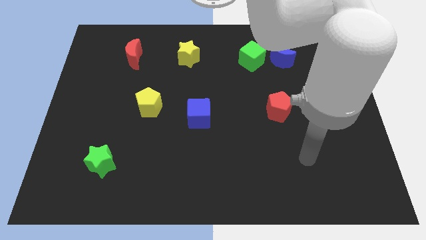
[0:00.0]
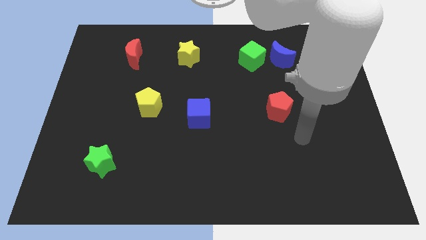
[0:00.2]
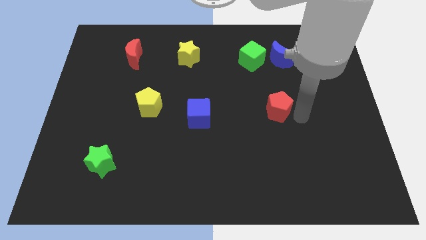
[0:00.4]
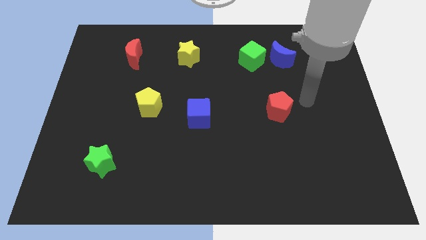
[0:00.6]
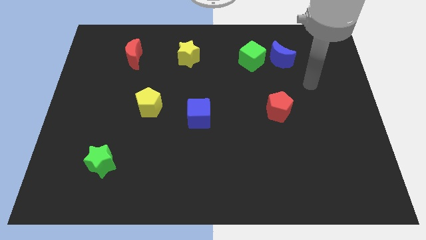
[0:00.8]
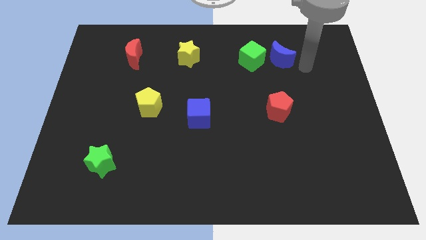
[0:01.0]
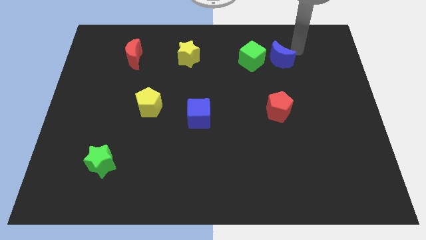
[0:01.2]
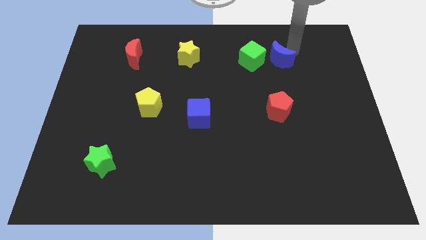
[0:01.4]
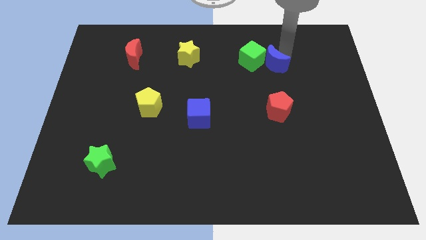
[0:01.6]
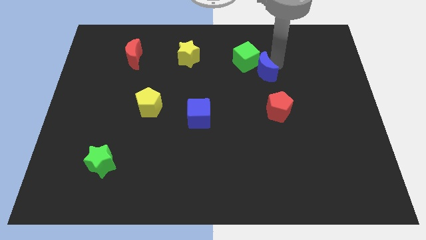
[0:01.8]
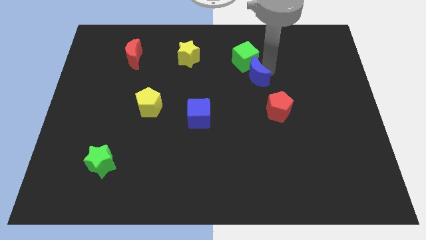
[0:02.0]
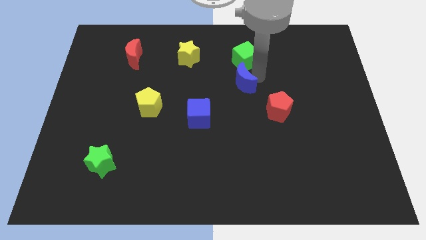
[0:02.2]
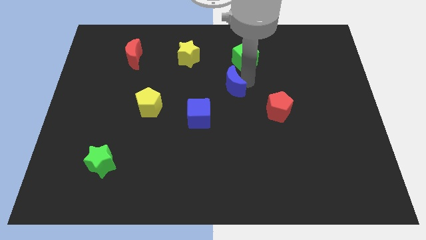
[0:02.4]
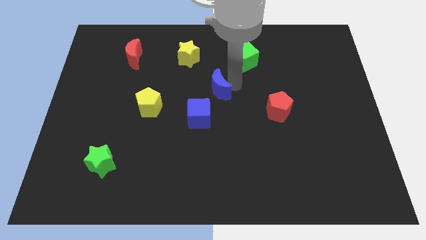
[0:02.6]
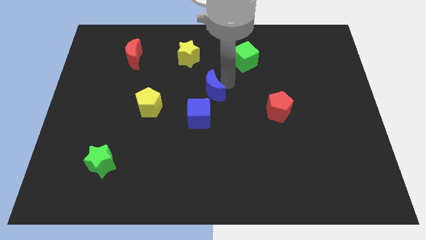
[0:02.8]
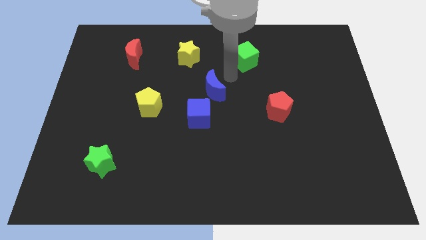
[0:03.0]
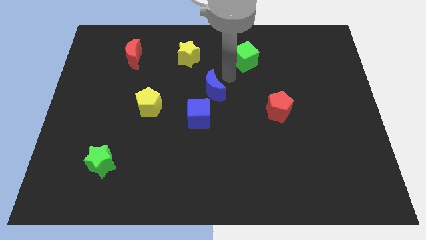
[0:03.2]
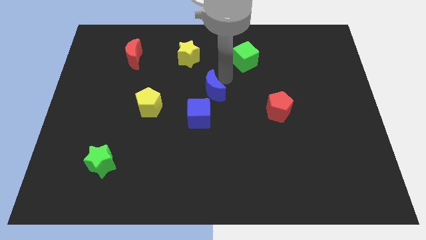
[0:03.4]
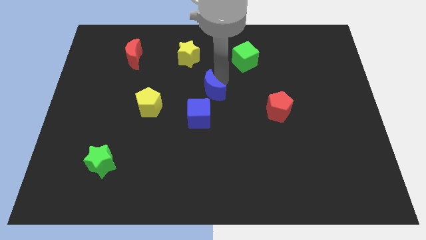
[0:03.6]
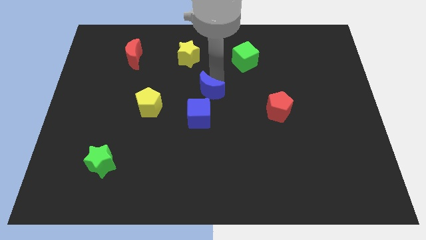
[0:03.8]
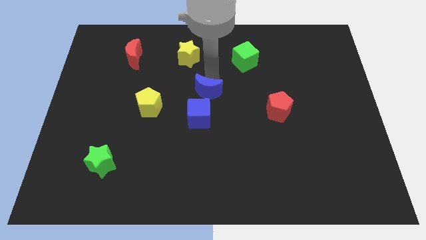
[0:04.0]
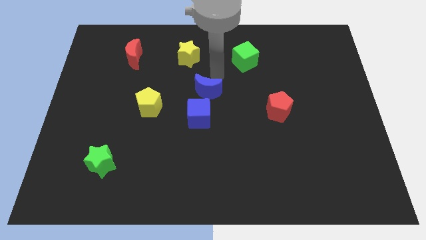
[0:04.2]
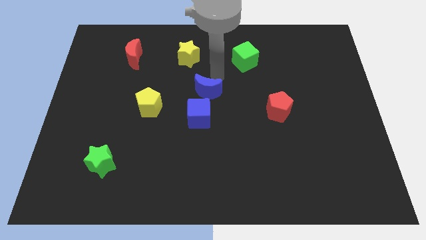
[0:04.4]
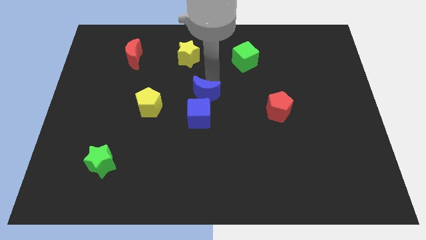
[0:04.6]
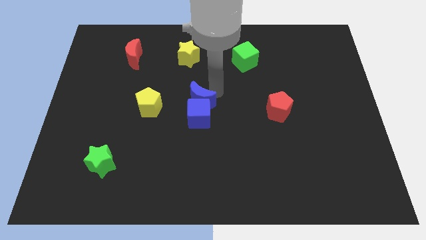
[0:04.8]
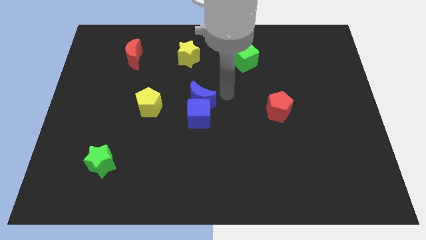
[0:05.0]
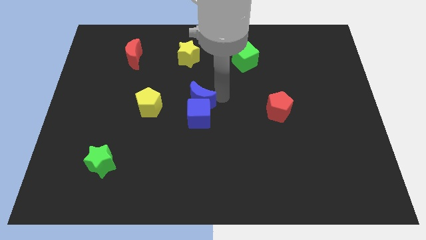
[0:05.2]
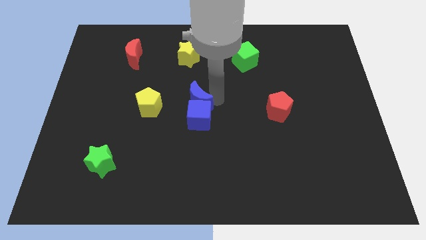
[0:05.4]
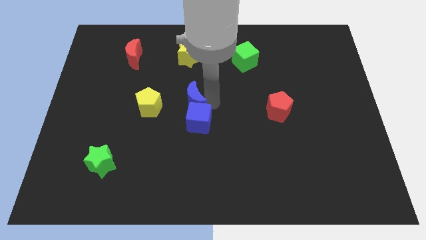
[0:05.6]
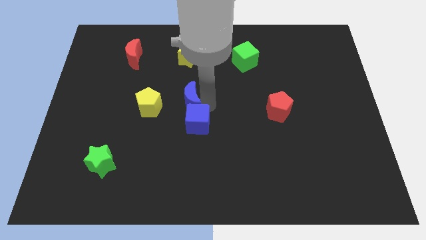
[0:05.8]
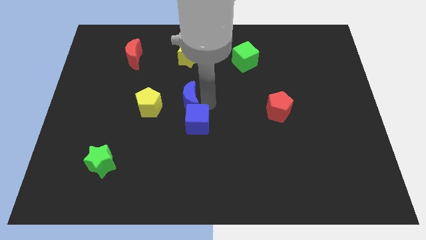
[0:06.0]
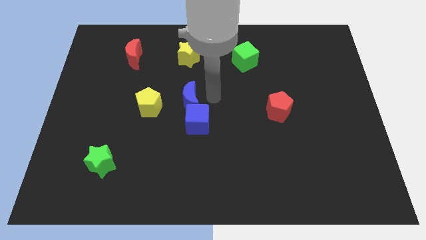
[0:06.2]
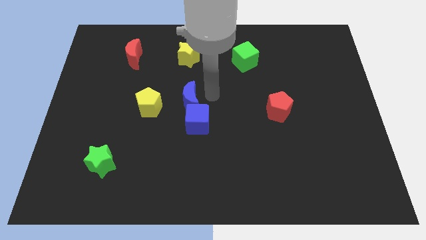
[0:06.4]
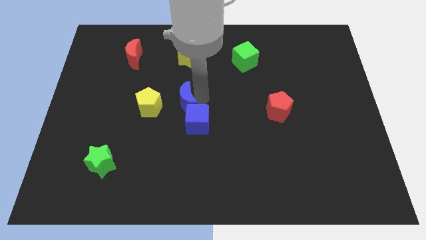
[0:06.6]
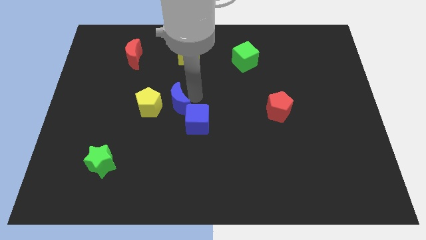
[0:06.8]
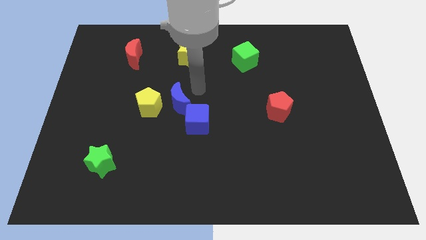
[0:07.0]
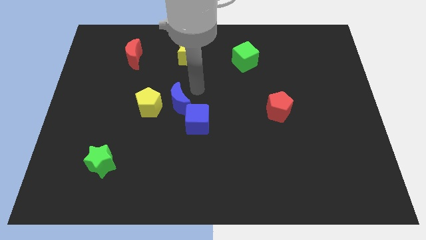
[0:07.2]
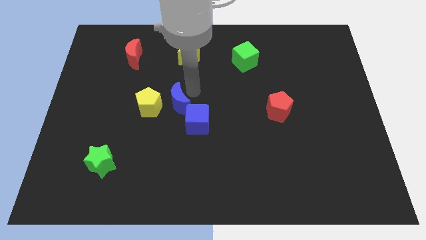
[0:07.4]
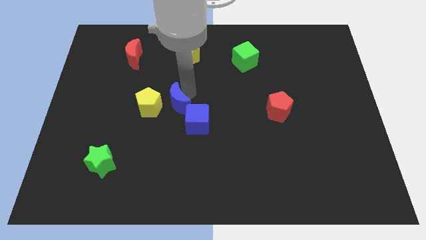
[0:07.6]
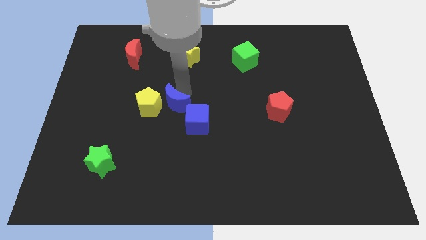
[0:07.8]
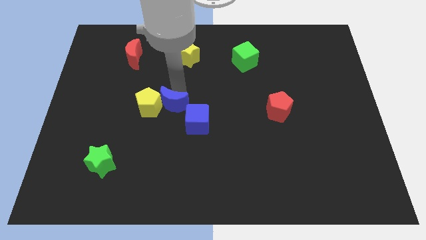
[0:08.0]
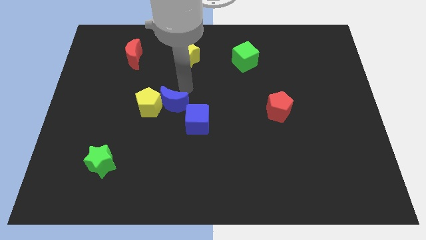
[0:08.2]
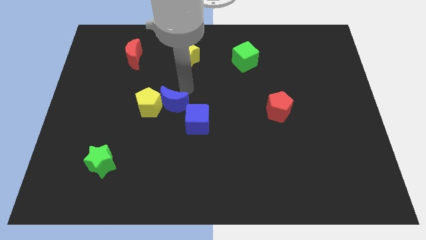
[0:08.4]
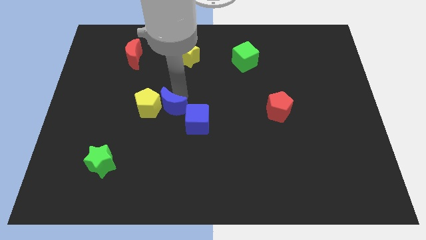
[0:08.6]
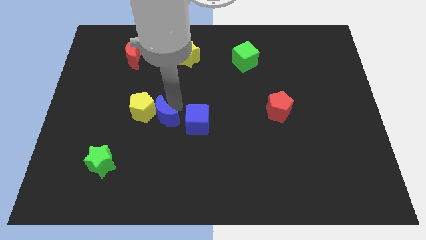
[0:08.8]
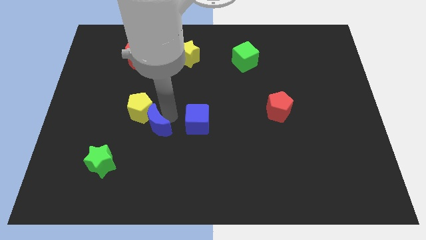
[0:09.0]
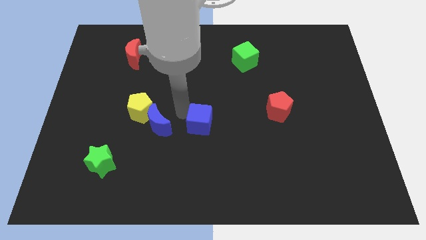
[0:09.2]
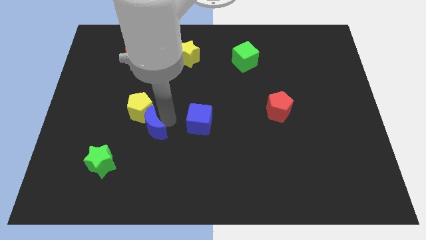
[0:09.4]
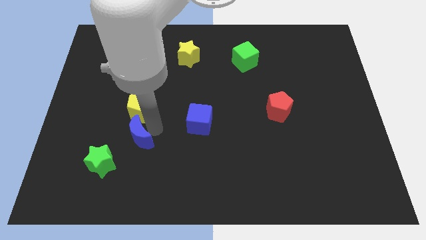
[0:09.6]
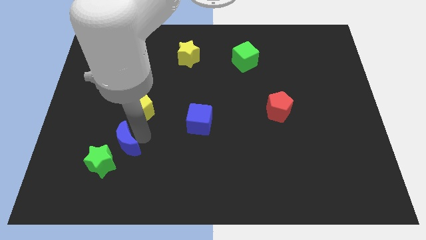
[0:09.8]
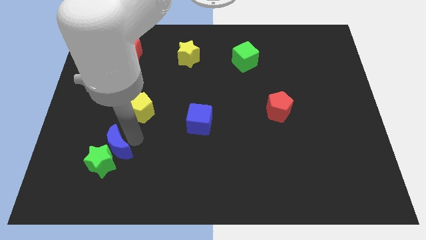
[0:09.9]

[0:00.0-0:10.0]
put the blue moon to the green star

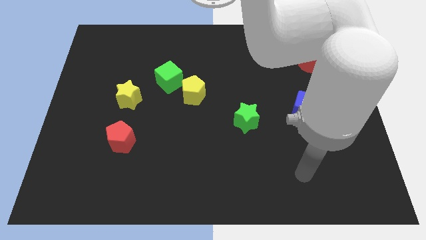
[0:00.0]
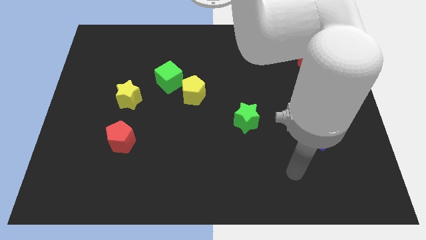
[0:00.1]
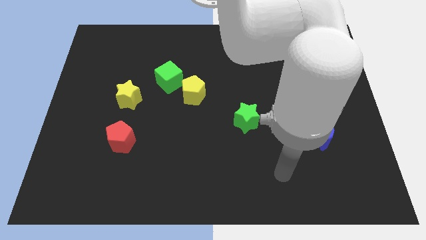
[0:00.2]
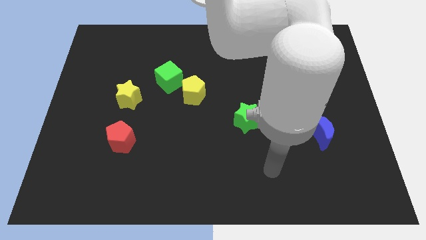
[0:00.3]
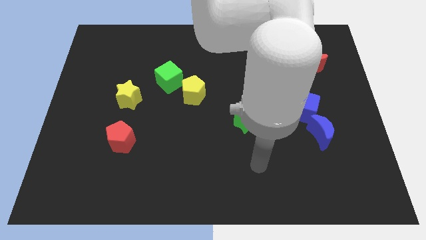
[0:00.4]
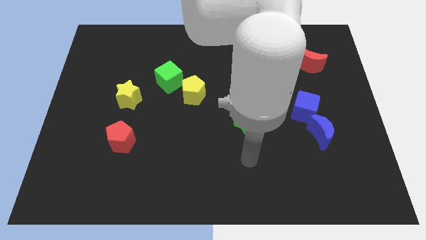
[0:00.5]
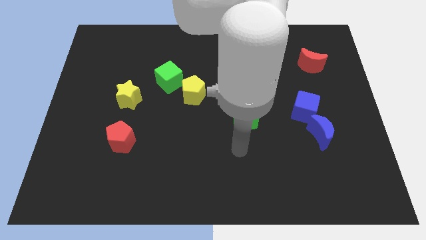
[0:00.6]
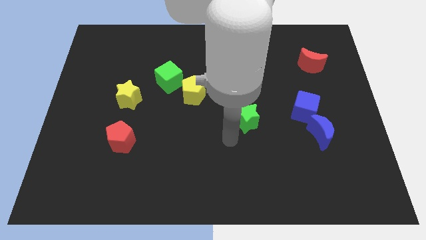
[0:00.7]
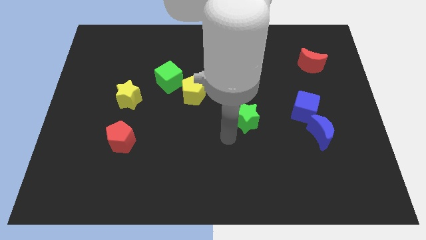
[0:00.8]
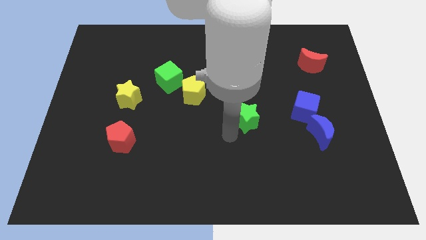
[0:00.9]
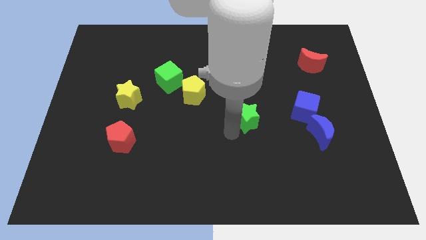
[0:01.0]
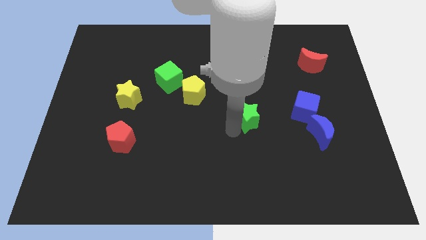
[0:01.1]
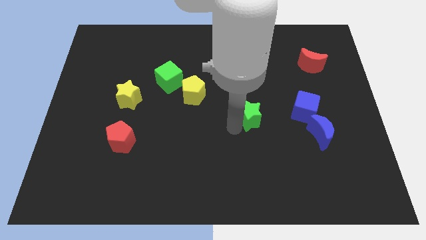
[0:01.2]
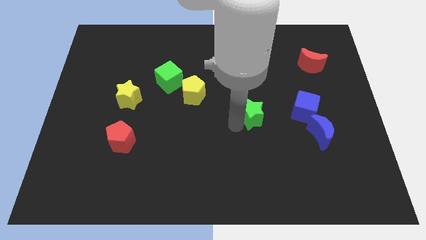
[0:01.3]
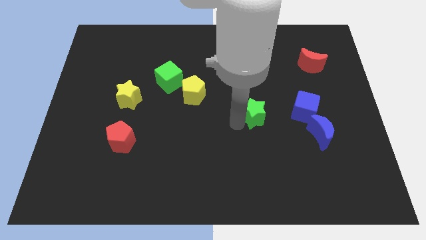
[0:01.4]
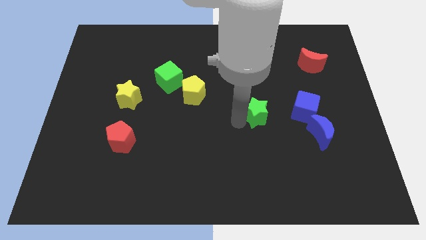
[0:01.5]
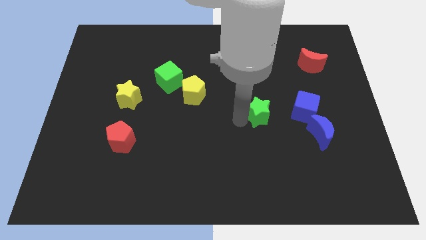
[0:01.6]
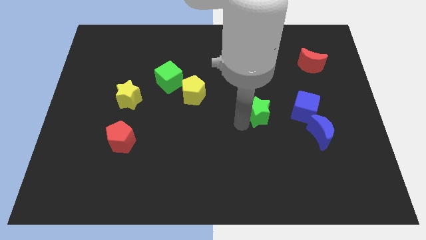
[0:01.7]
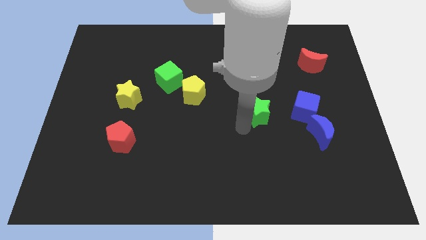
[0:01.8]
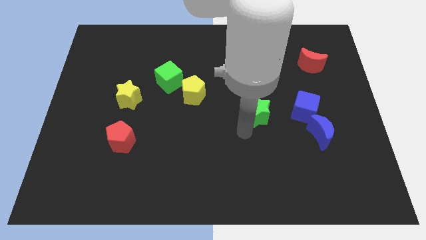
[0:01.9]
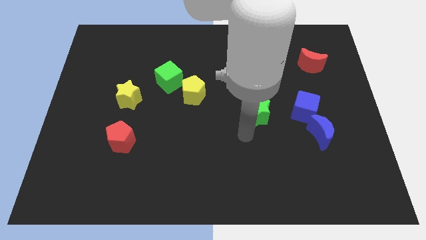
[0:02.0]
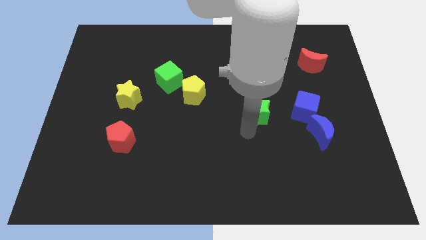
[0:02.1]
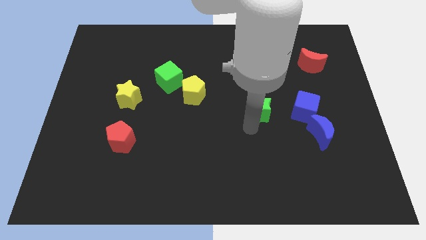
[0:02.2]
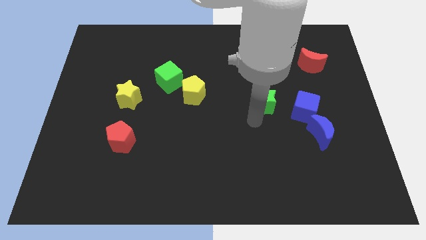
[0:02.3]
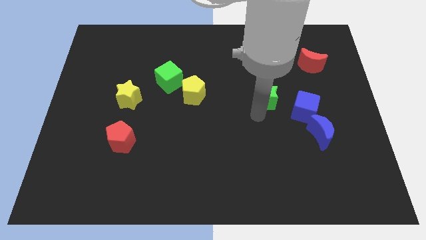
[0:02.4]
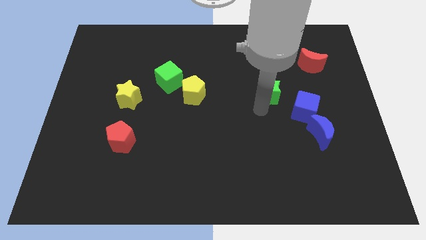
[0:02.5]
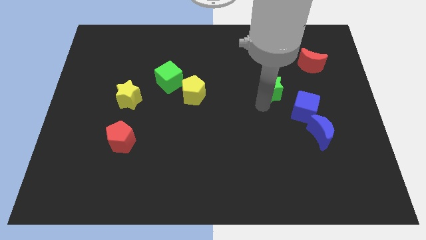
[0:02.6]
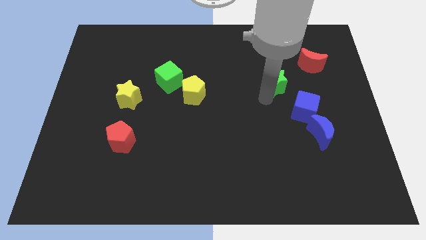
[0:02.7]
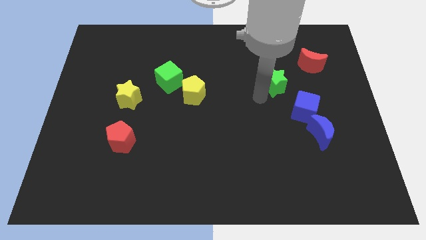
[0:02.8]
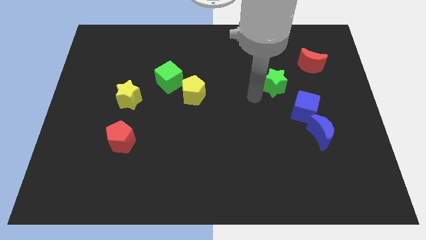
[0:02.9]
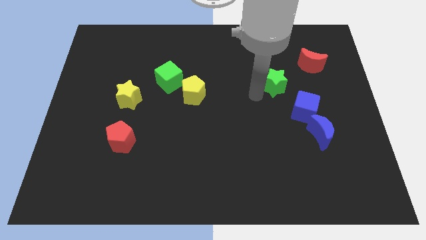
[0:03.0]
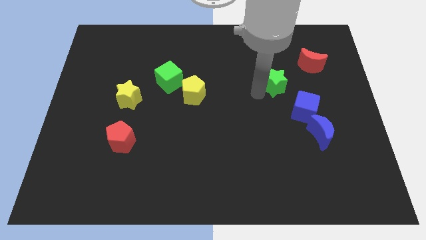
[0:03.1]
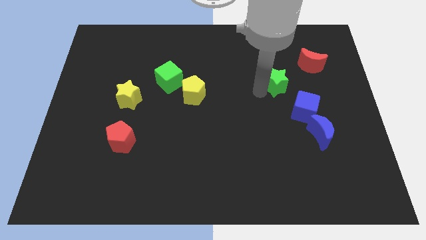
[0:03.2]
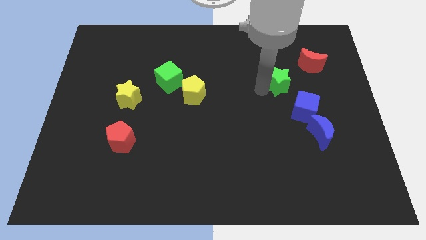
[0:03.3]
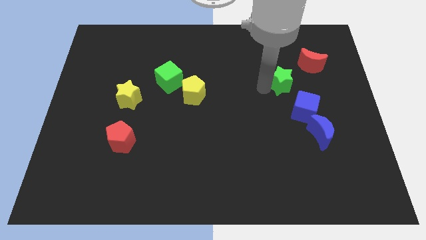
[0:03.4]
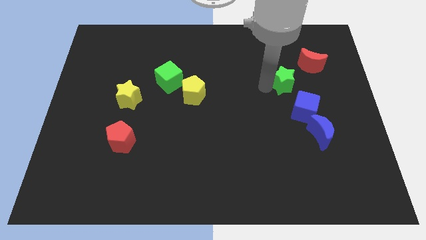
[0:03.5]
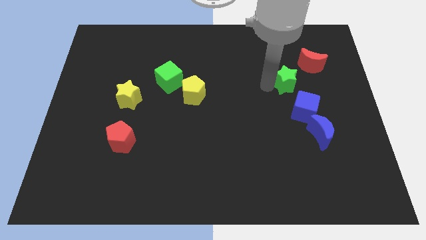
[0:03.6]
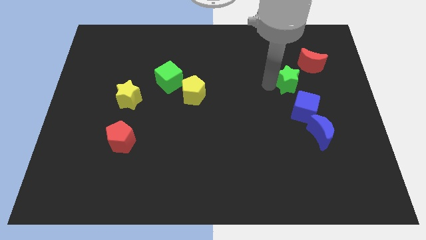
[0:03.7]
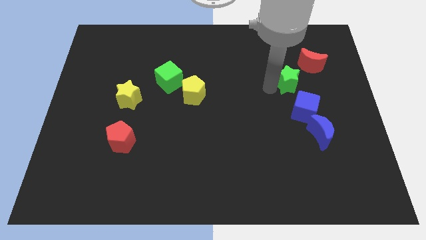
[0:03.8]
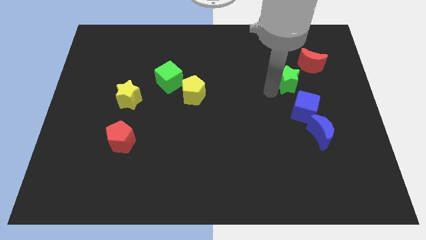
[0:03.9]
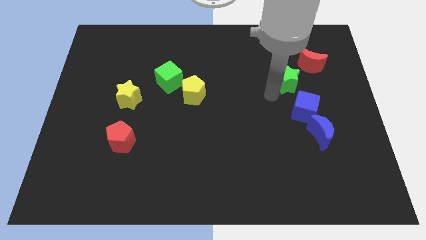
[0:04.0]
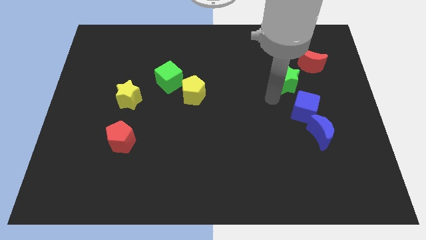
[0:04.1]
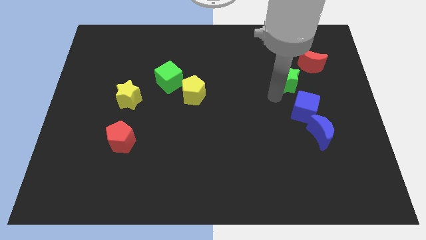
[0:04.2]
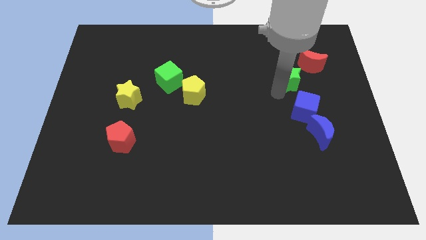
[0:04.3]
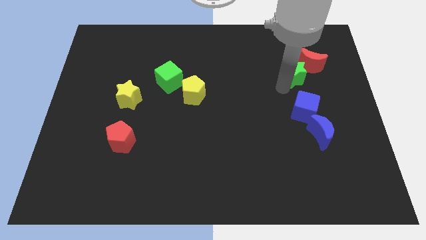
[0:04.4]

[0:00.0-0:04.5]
move the green star close to the red moon
